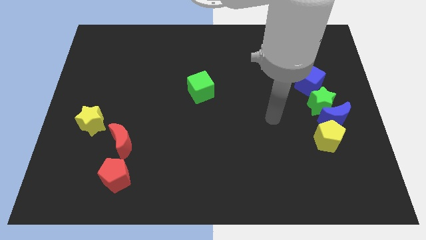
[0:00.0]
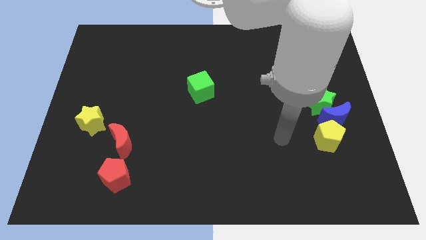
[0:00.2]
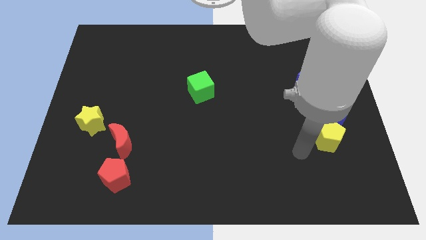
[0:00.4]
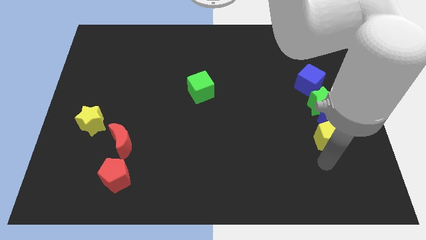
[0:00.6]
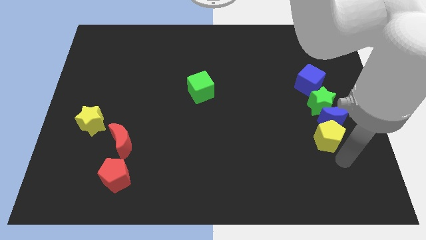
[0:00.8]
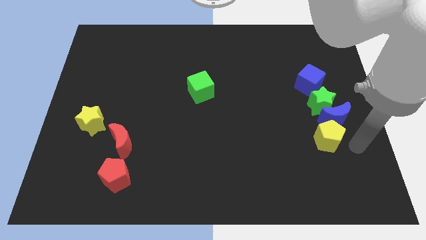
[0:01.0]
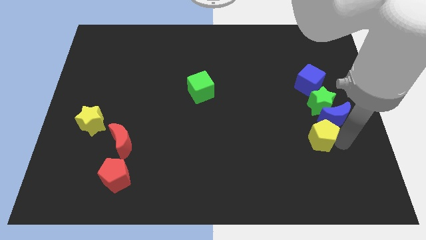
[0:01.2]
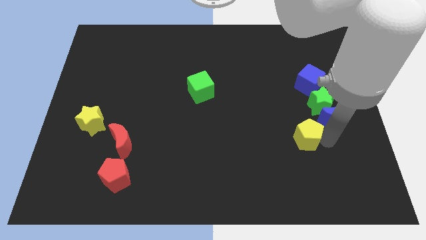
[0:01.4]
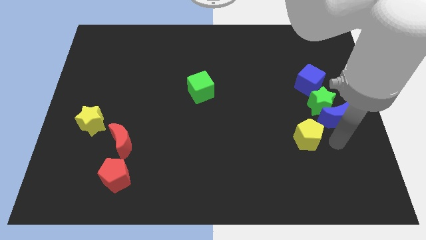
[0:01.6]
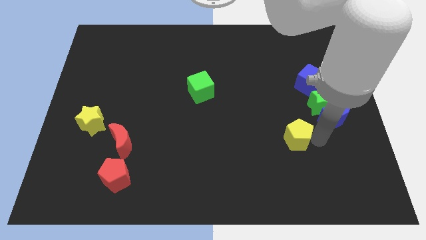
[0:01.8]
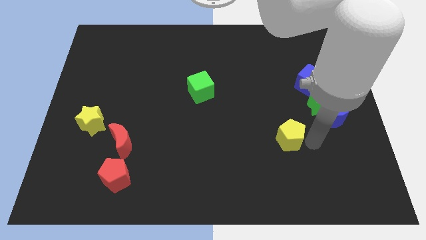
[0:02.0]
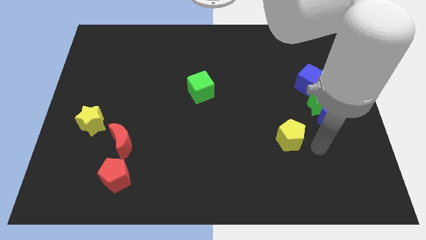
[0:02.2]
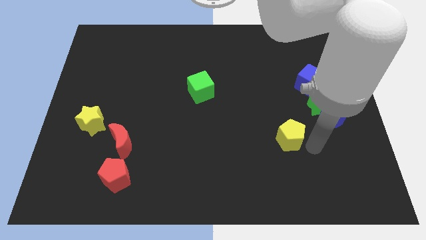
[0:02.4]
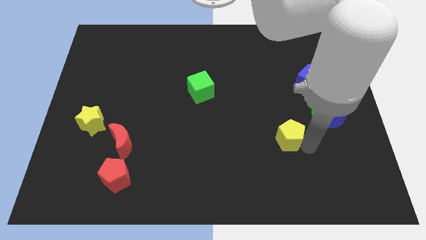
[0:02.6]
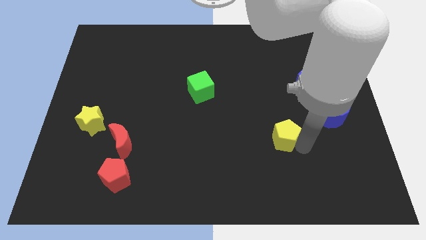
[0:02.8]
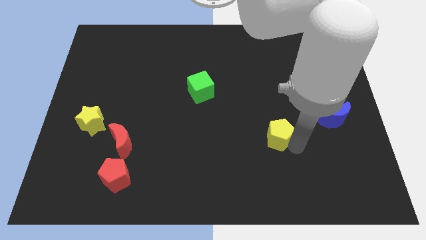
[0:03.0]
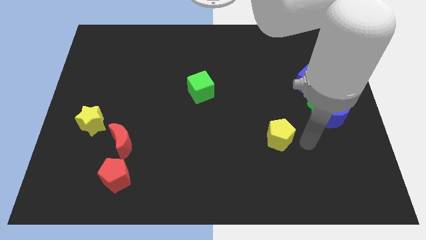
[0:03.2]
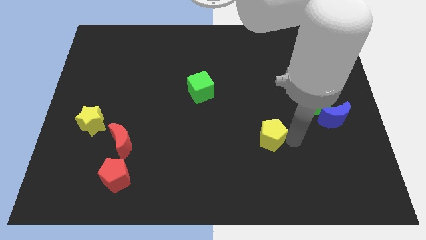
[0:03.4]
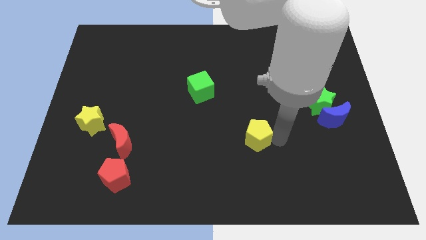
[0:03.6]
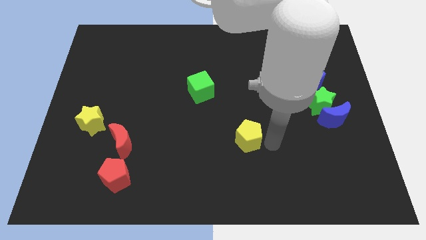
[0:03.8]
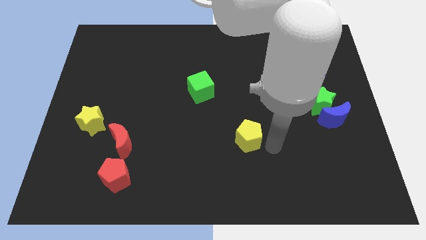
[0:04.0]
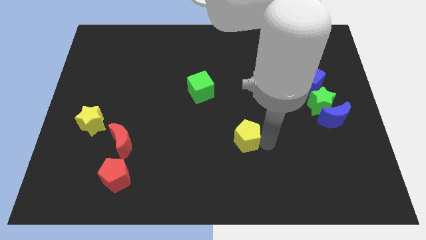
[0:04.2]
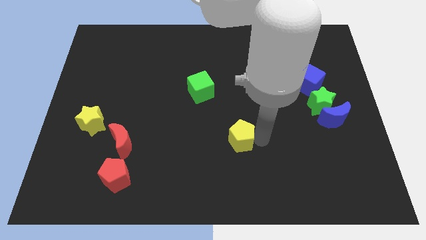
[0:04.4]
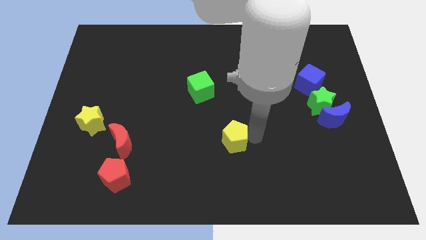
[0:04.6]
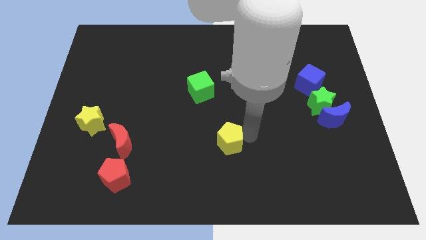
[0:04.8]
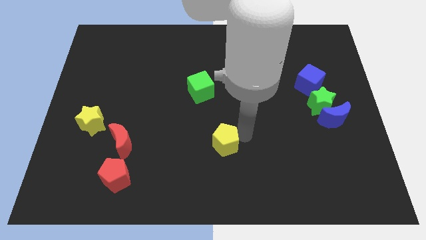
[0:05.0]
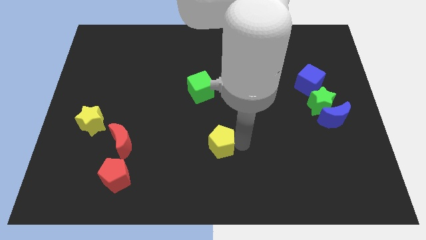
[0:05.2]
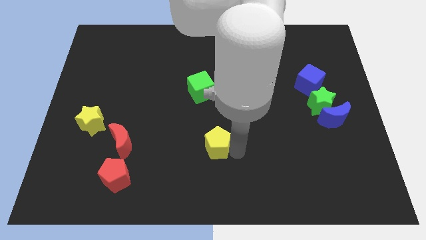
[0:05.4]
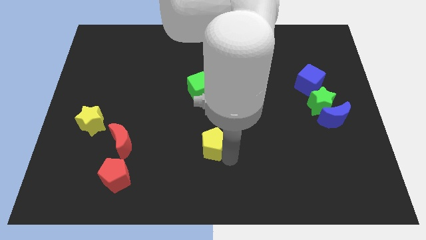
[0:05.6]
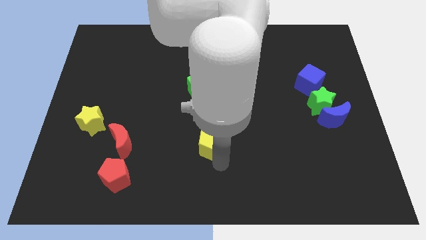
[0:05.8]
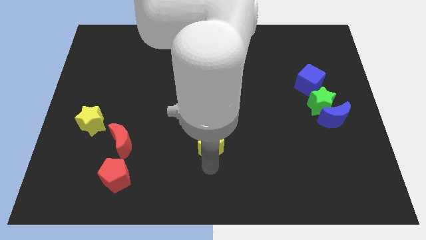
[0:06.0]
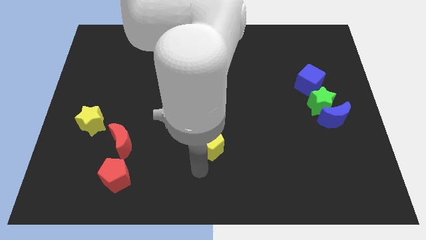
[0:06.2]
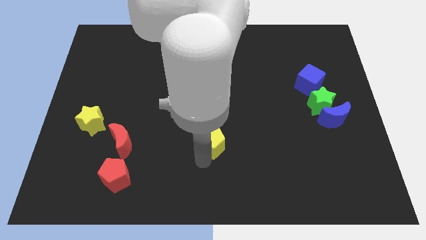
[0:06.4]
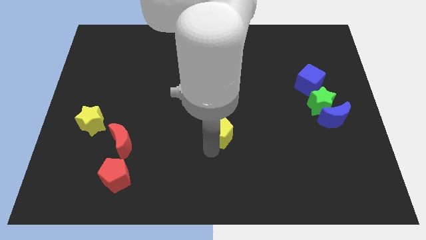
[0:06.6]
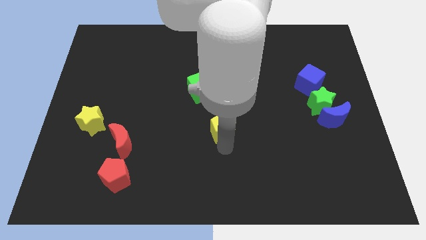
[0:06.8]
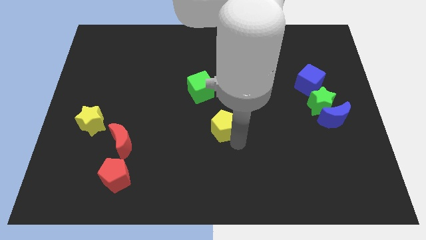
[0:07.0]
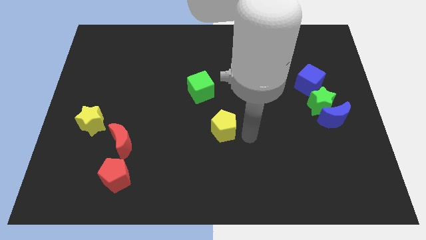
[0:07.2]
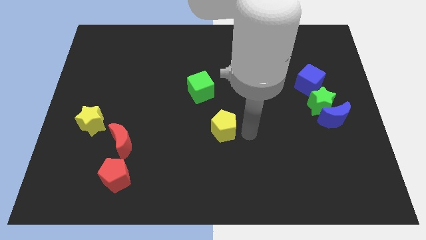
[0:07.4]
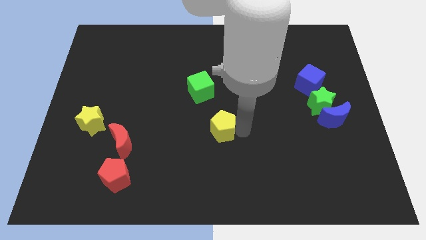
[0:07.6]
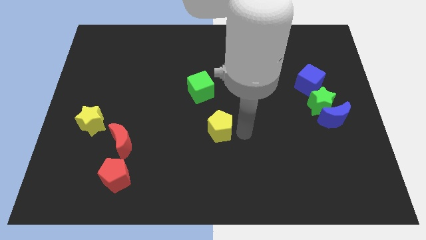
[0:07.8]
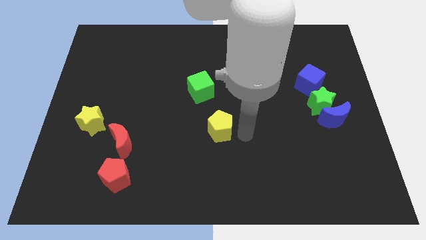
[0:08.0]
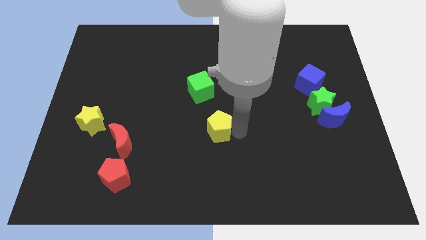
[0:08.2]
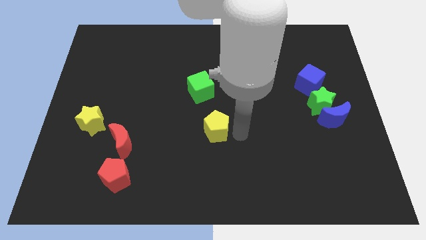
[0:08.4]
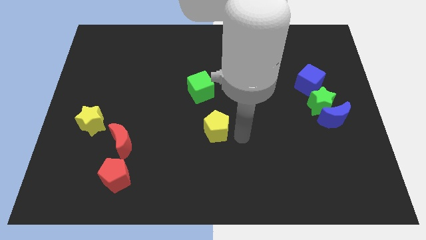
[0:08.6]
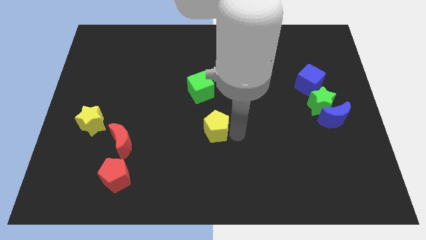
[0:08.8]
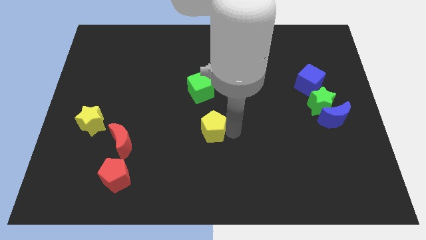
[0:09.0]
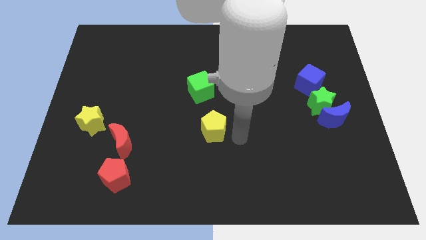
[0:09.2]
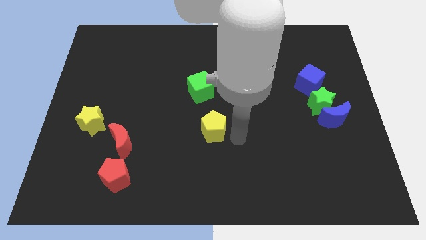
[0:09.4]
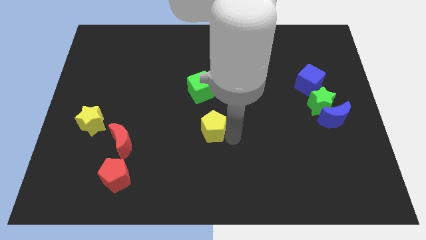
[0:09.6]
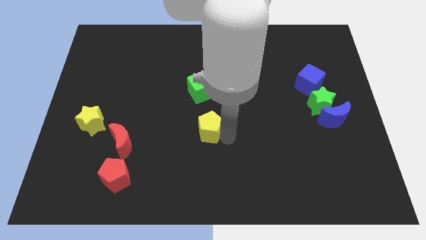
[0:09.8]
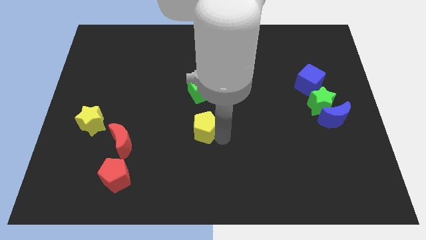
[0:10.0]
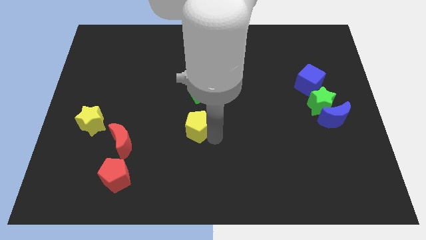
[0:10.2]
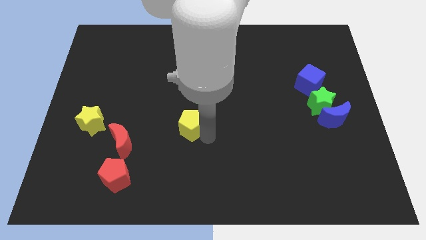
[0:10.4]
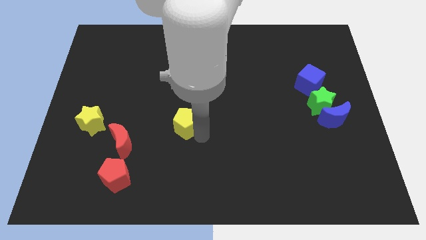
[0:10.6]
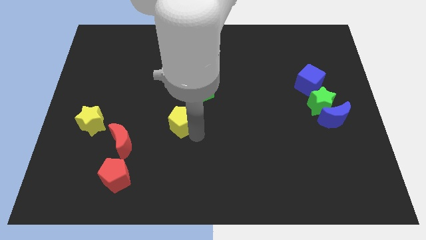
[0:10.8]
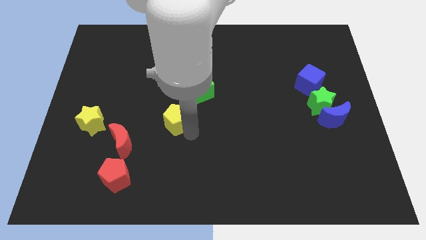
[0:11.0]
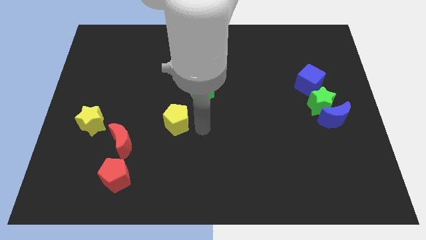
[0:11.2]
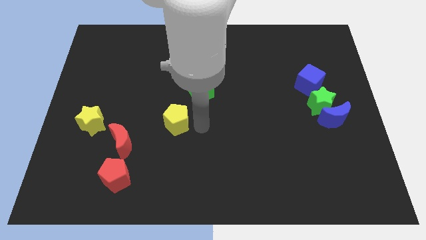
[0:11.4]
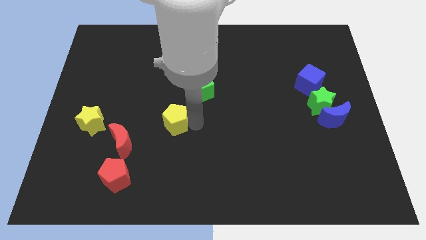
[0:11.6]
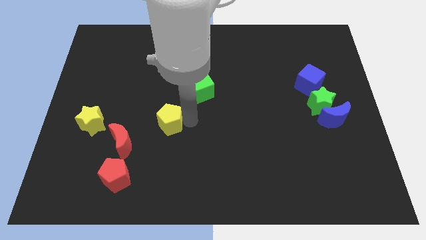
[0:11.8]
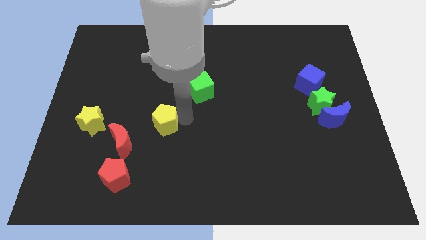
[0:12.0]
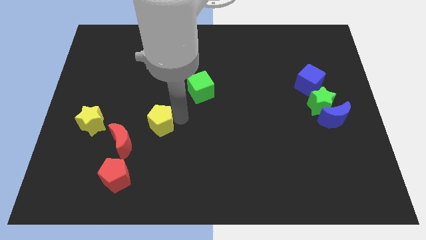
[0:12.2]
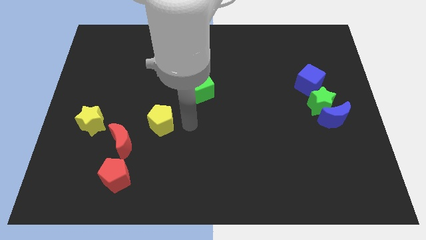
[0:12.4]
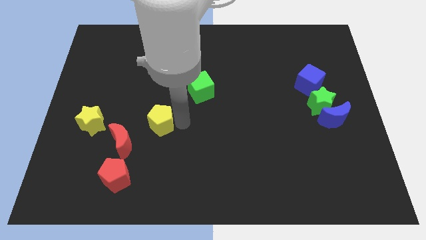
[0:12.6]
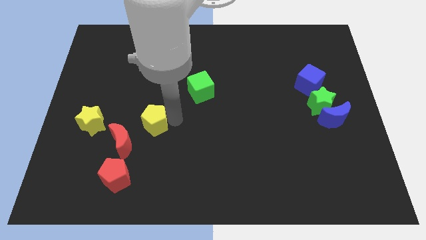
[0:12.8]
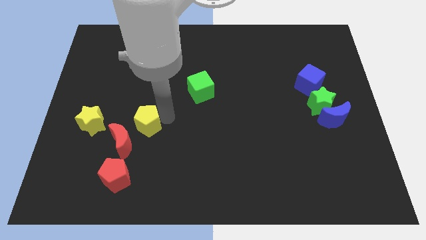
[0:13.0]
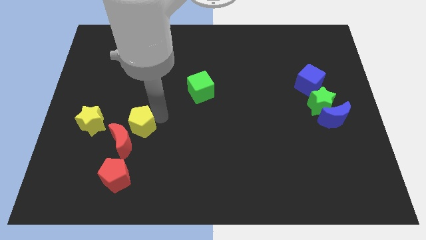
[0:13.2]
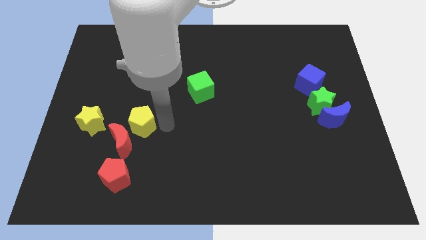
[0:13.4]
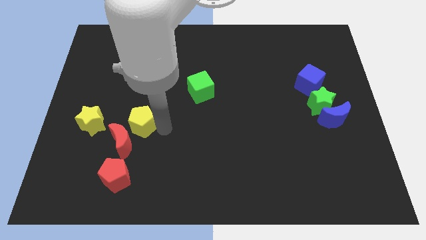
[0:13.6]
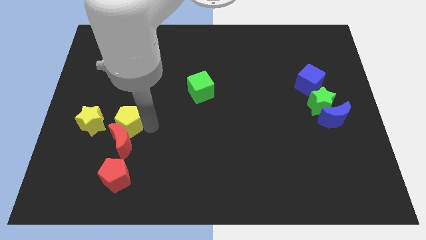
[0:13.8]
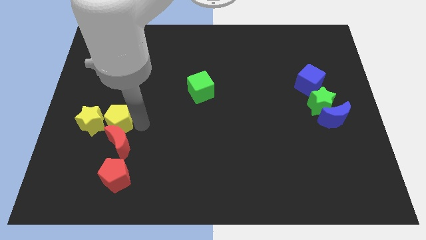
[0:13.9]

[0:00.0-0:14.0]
push the yellow pentagon close to the yellow star

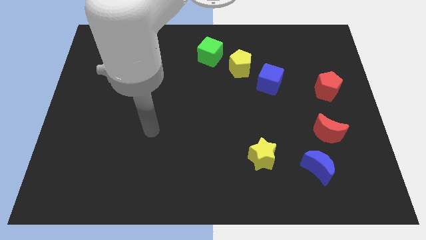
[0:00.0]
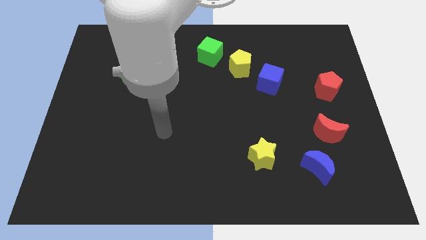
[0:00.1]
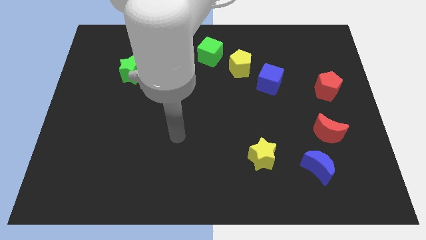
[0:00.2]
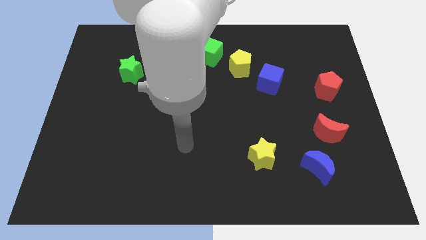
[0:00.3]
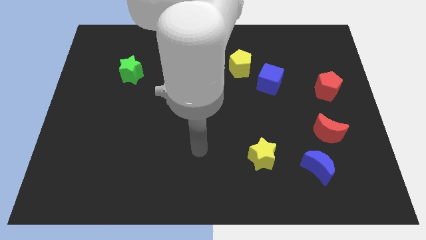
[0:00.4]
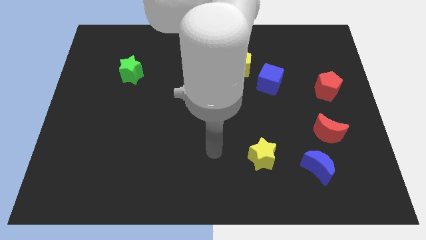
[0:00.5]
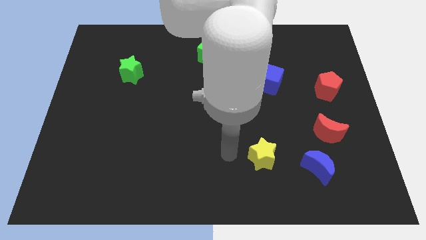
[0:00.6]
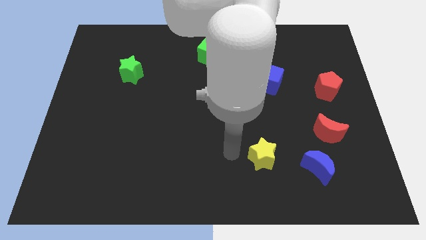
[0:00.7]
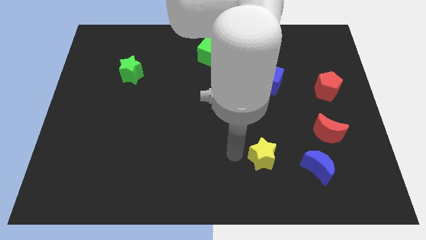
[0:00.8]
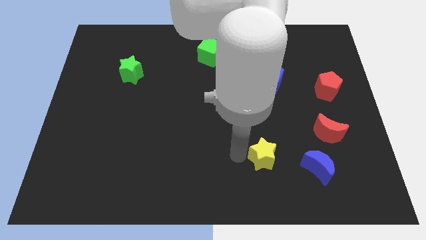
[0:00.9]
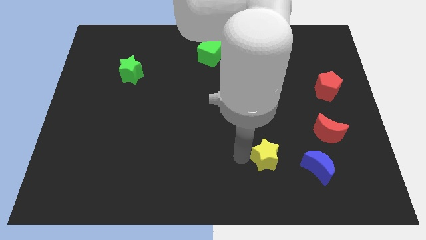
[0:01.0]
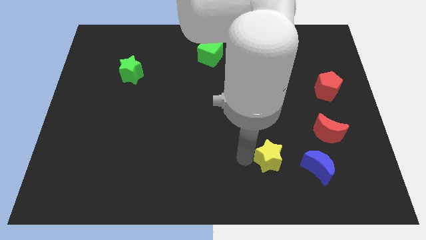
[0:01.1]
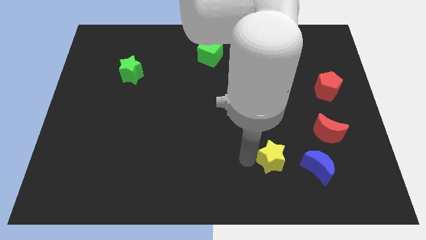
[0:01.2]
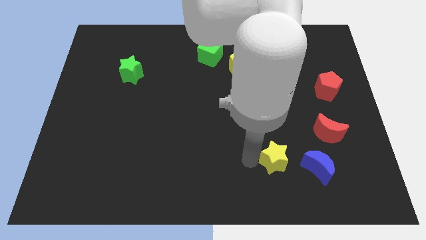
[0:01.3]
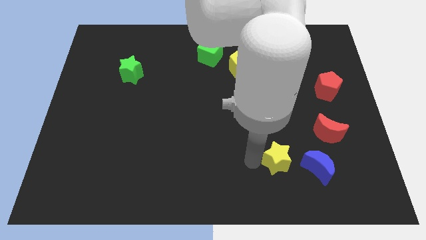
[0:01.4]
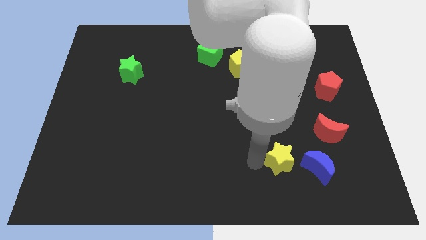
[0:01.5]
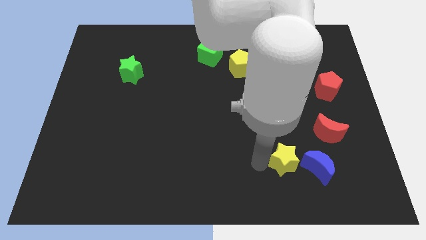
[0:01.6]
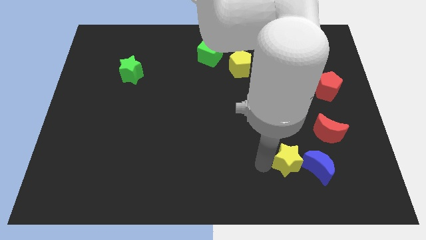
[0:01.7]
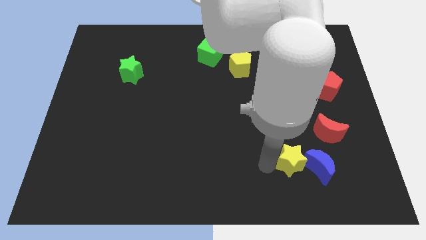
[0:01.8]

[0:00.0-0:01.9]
slide the yellow star to the blue moon
